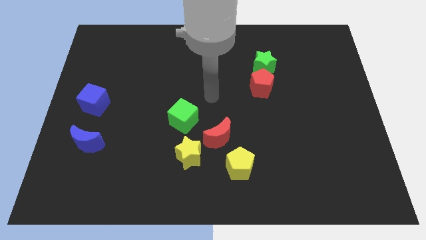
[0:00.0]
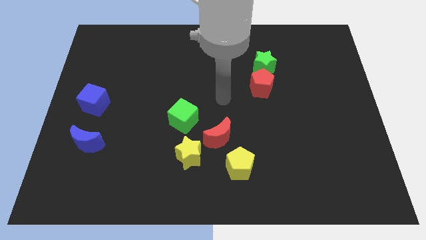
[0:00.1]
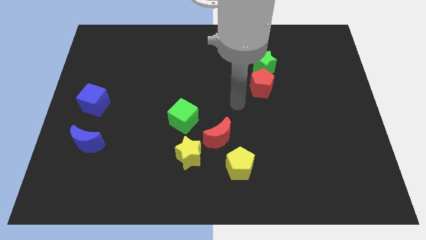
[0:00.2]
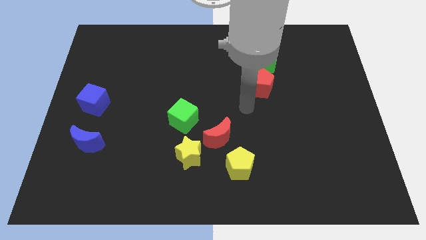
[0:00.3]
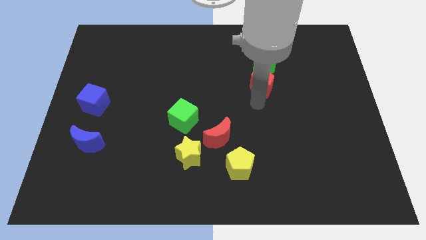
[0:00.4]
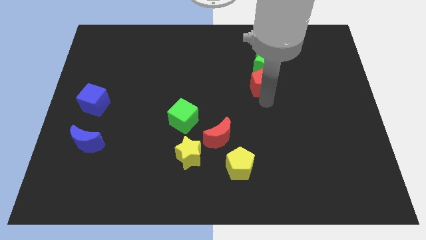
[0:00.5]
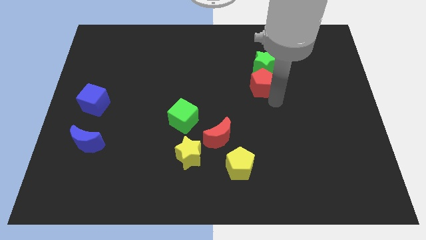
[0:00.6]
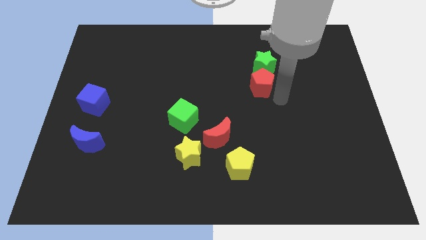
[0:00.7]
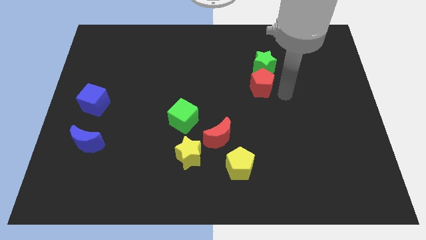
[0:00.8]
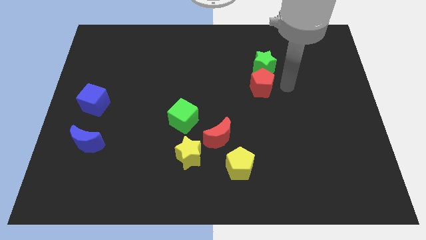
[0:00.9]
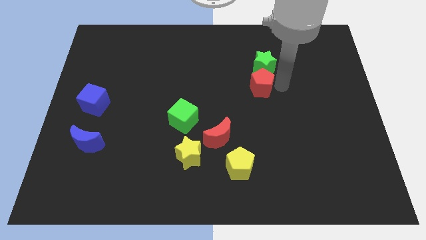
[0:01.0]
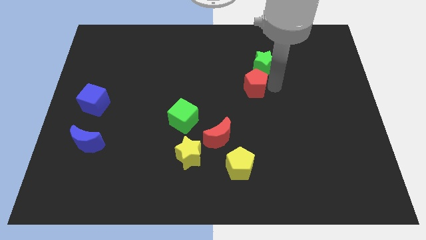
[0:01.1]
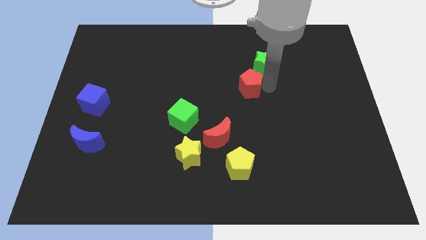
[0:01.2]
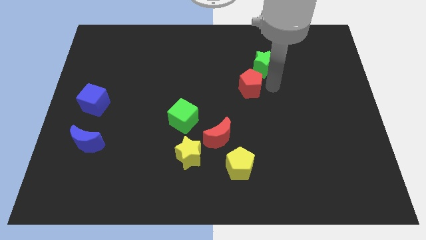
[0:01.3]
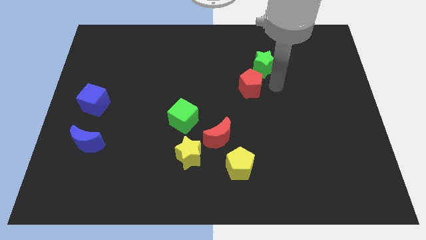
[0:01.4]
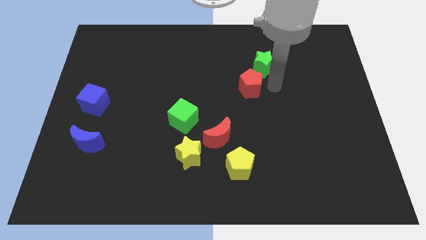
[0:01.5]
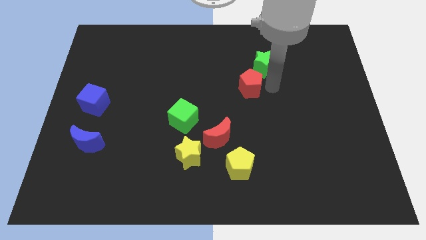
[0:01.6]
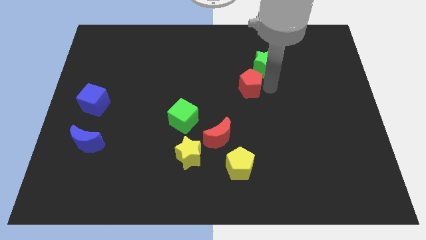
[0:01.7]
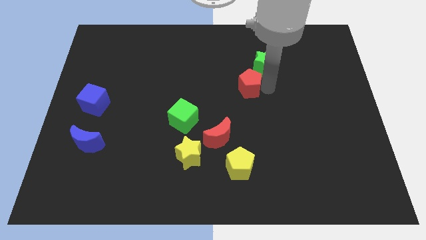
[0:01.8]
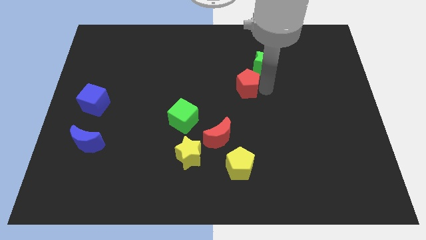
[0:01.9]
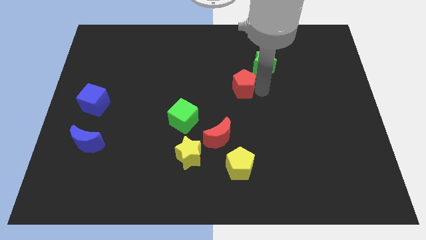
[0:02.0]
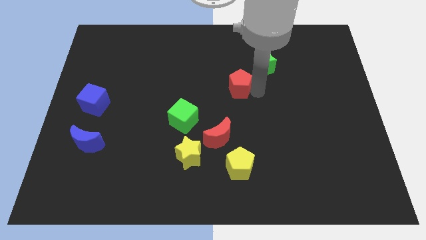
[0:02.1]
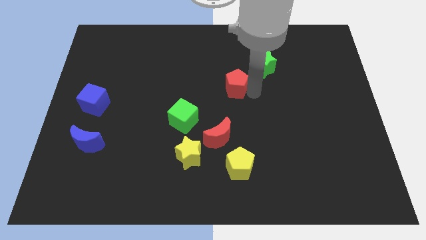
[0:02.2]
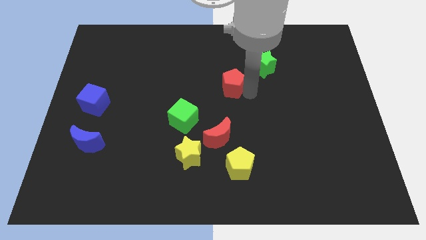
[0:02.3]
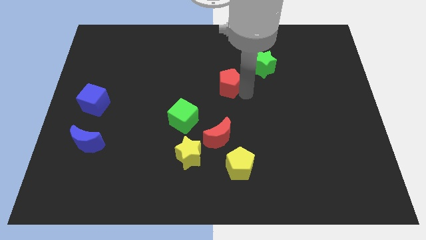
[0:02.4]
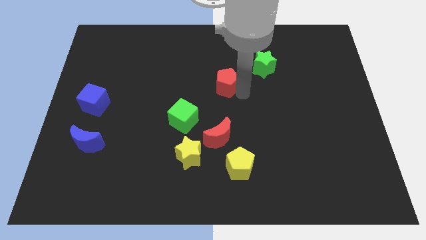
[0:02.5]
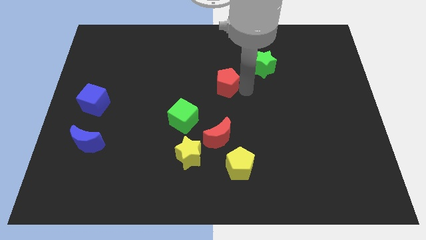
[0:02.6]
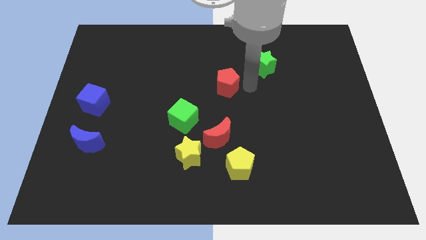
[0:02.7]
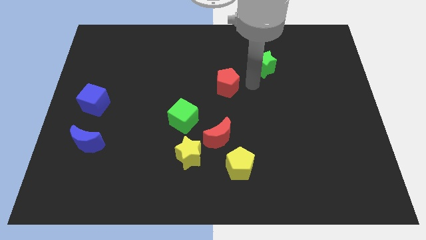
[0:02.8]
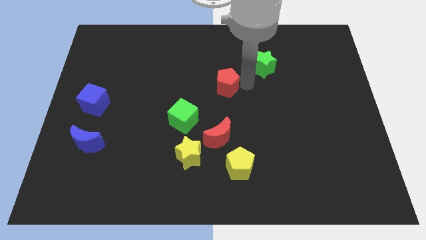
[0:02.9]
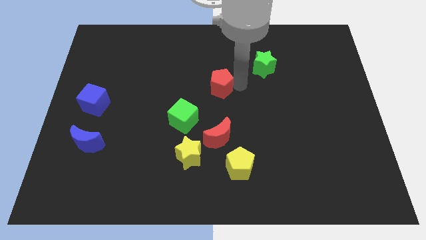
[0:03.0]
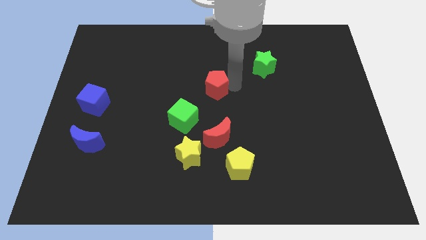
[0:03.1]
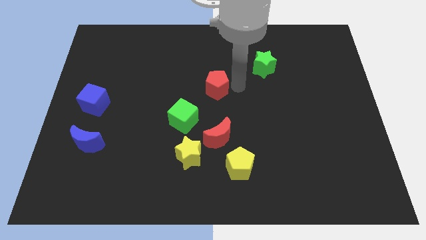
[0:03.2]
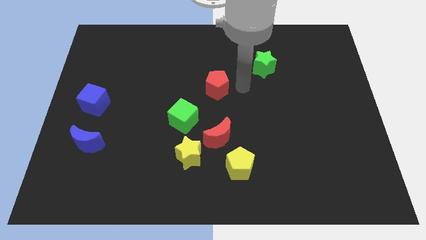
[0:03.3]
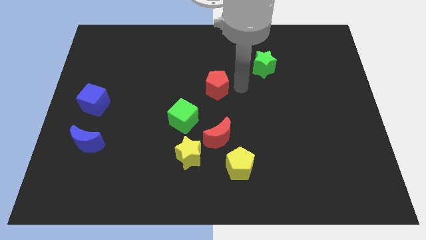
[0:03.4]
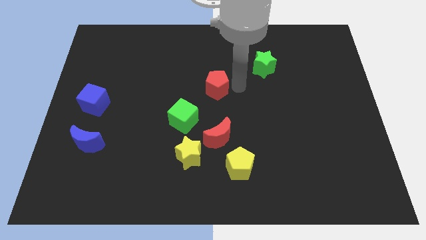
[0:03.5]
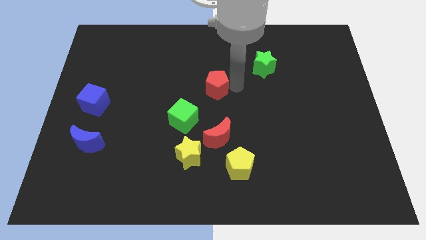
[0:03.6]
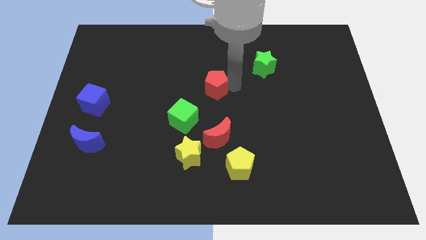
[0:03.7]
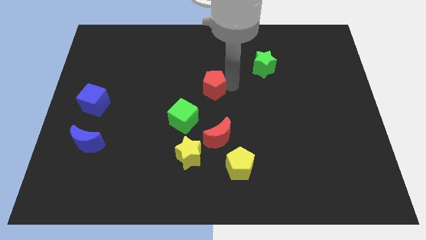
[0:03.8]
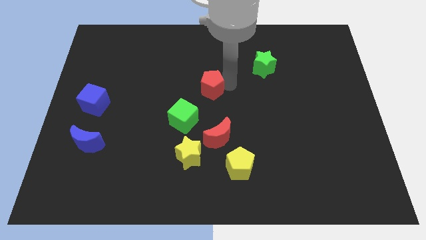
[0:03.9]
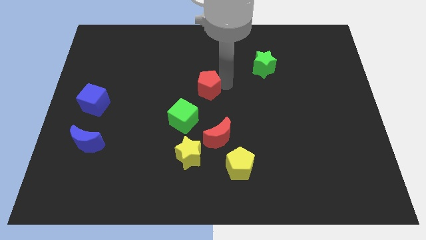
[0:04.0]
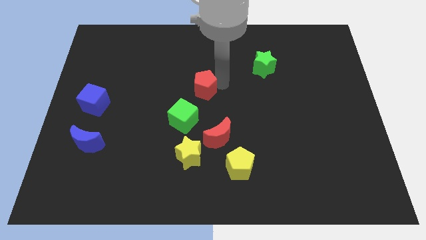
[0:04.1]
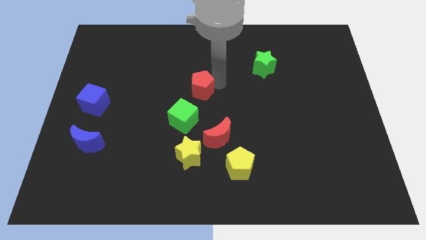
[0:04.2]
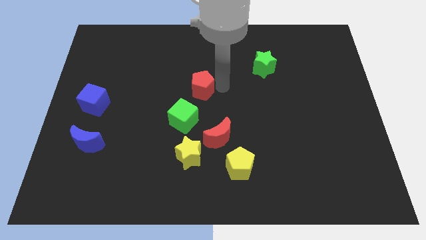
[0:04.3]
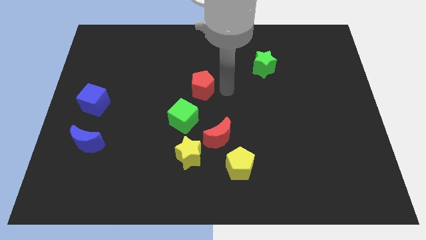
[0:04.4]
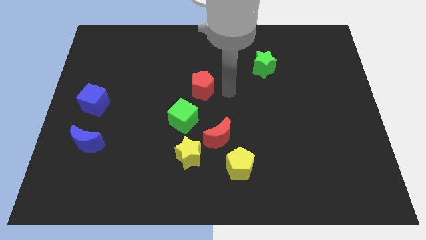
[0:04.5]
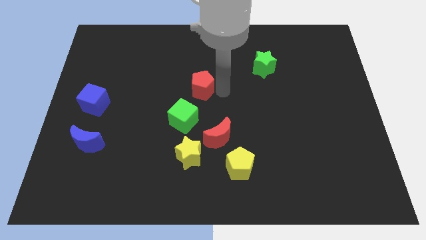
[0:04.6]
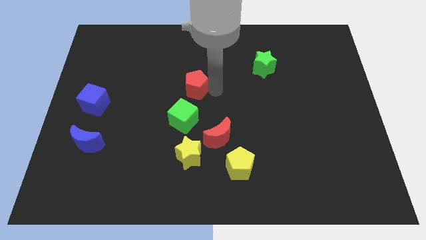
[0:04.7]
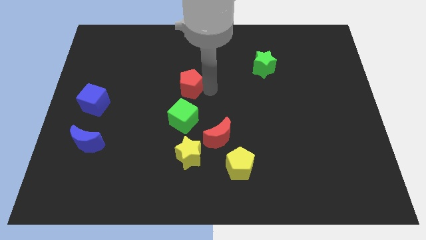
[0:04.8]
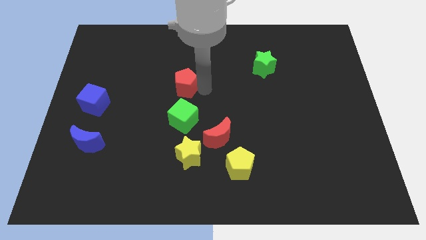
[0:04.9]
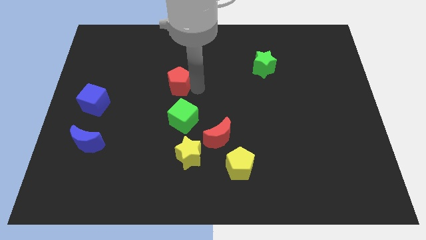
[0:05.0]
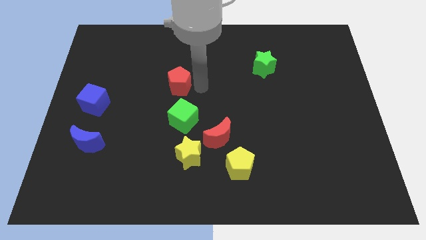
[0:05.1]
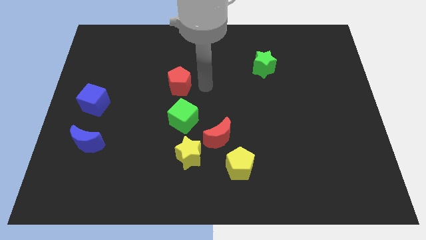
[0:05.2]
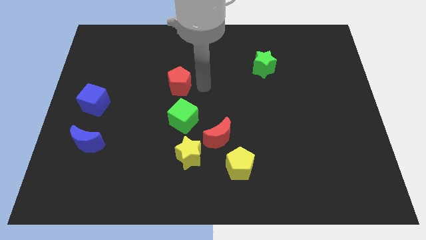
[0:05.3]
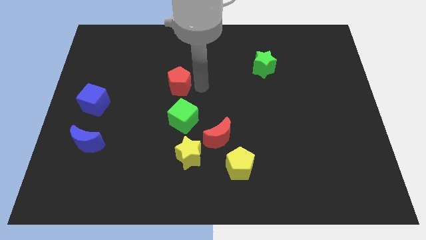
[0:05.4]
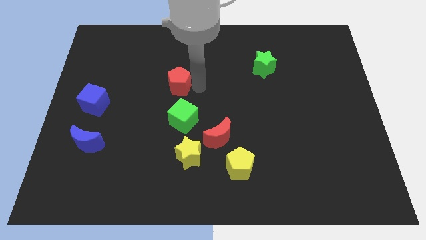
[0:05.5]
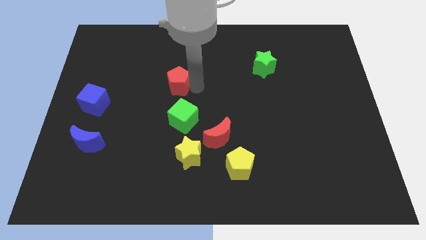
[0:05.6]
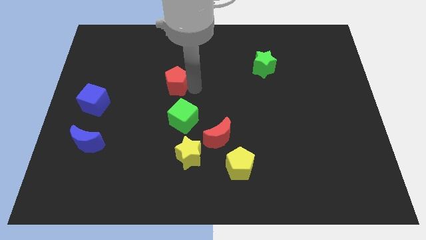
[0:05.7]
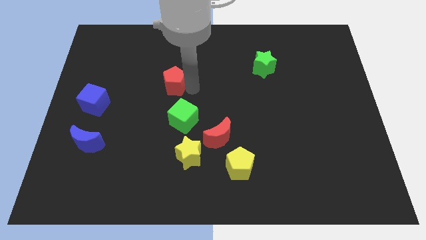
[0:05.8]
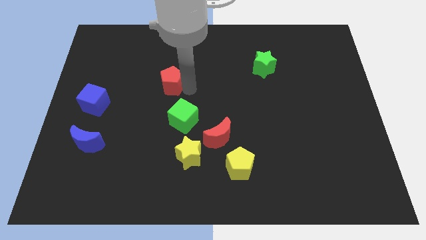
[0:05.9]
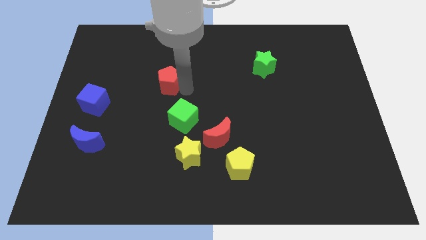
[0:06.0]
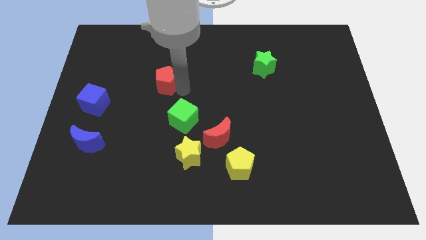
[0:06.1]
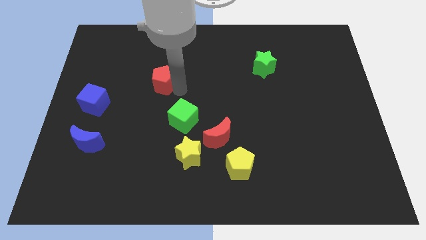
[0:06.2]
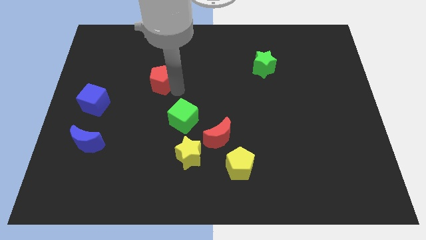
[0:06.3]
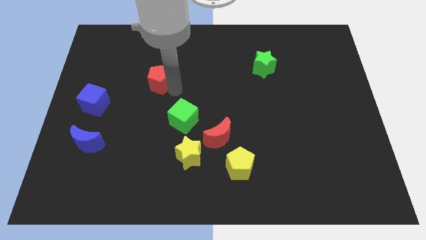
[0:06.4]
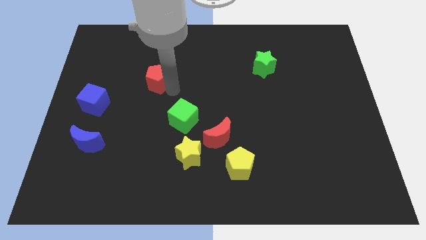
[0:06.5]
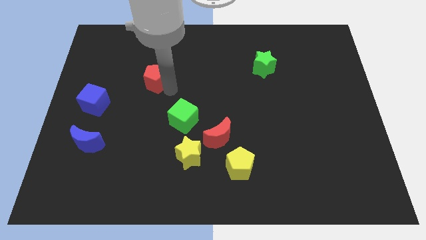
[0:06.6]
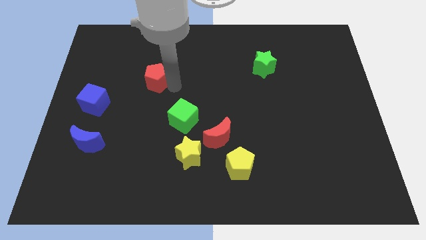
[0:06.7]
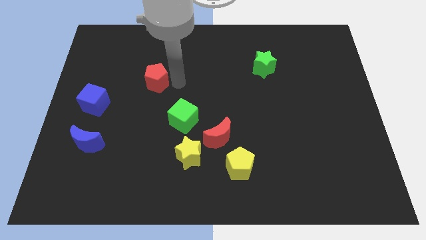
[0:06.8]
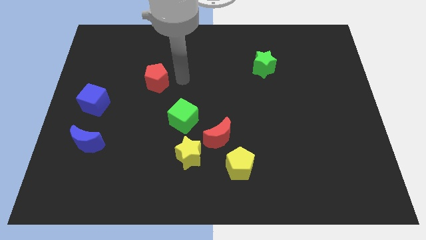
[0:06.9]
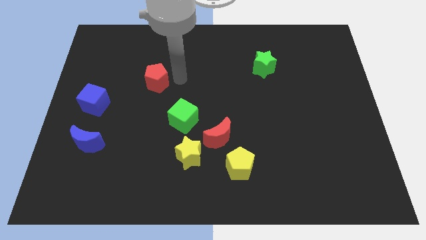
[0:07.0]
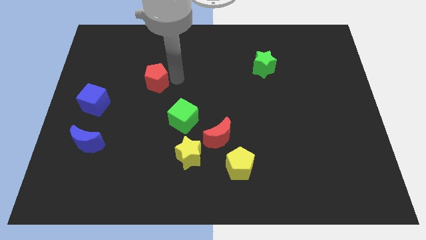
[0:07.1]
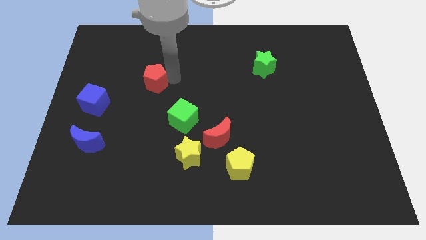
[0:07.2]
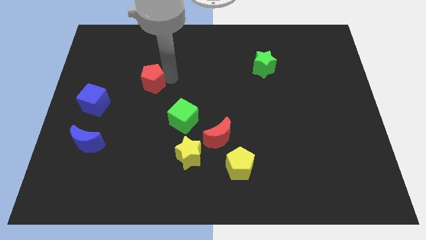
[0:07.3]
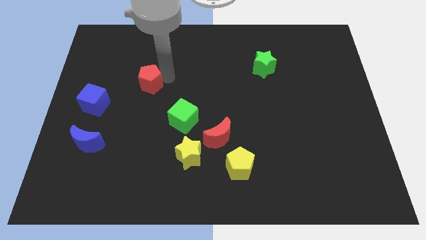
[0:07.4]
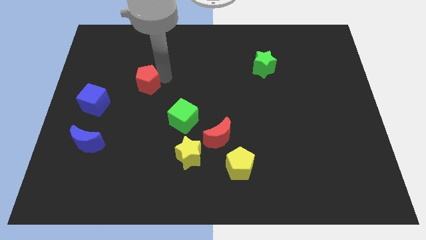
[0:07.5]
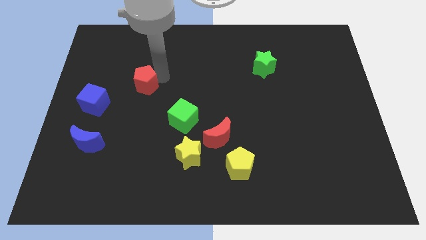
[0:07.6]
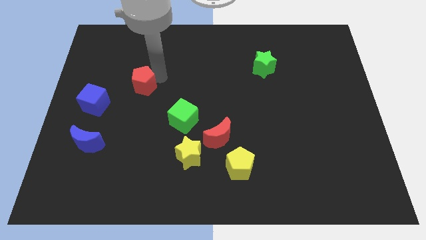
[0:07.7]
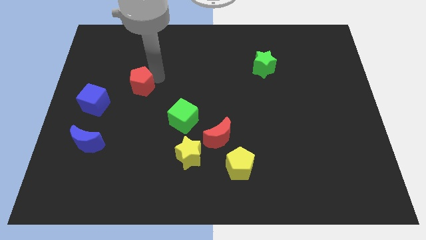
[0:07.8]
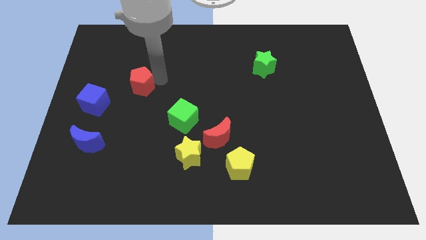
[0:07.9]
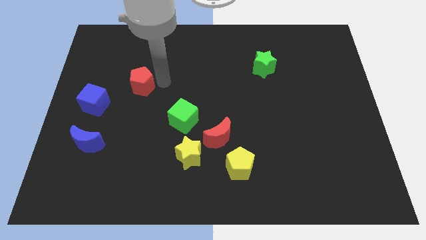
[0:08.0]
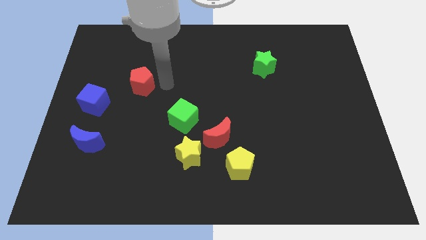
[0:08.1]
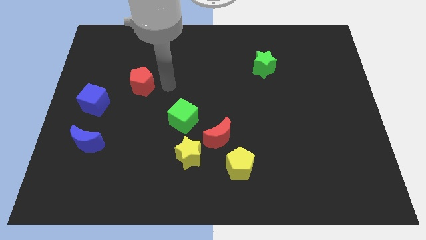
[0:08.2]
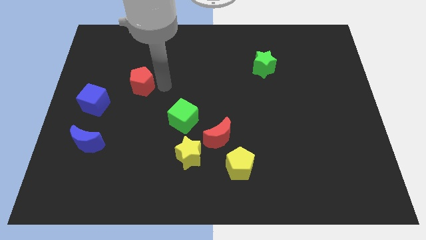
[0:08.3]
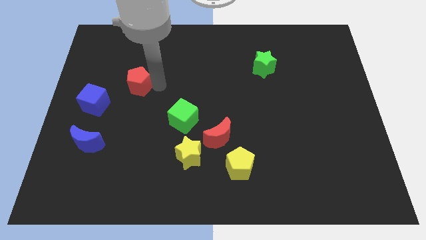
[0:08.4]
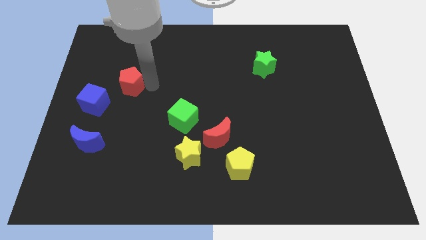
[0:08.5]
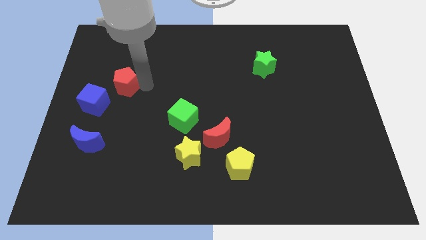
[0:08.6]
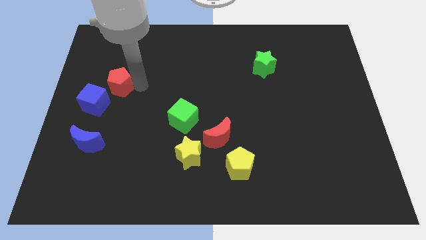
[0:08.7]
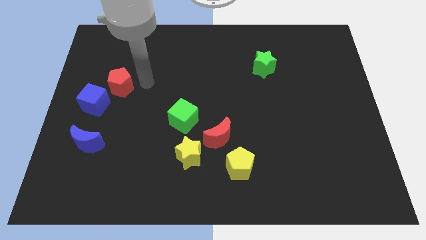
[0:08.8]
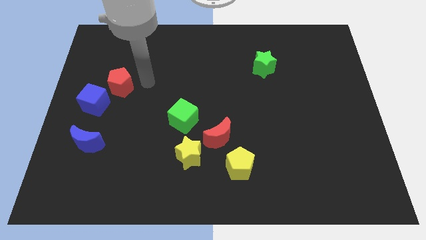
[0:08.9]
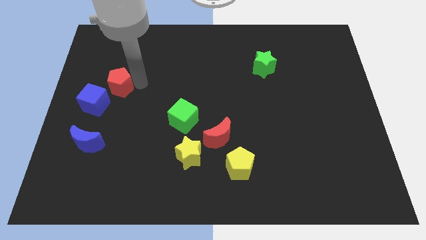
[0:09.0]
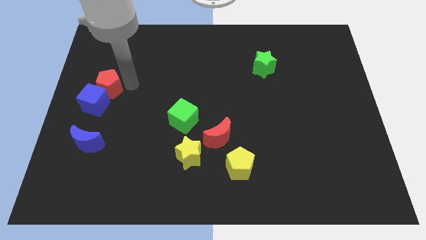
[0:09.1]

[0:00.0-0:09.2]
put the red pentagon to the left side of the board
